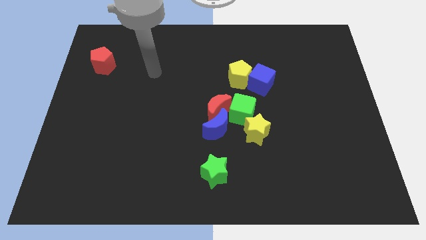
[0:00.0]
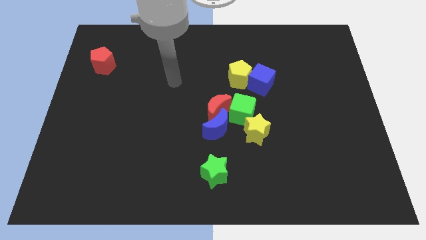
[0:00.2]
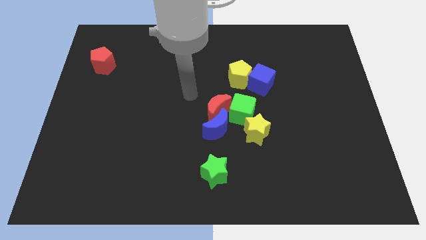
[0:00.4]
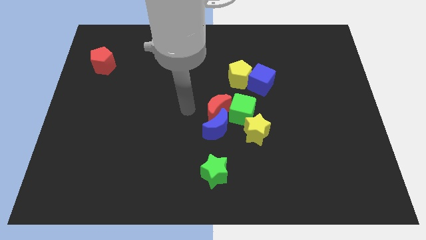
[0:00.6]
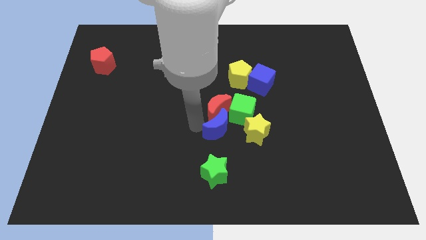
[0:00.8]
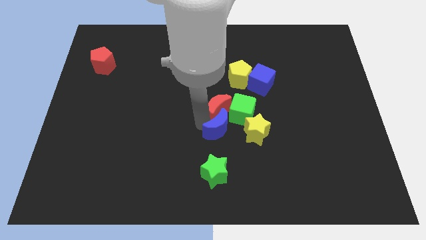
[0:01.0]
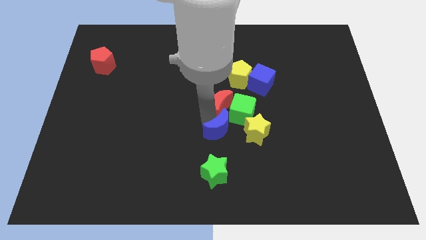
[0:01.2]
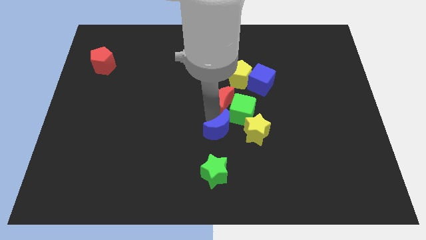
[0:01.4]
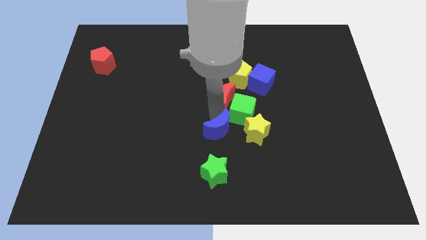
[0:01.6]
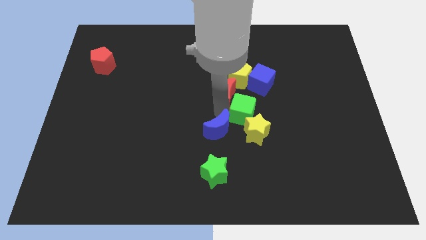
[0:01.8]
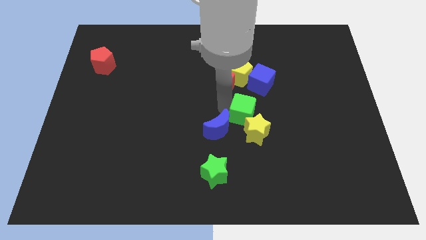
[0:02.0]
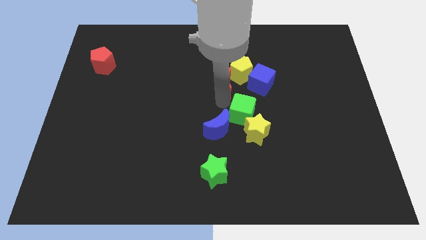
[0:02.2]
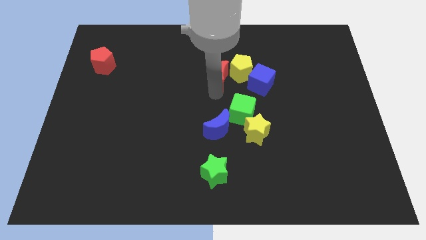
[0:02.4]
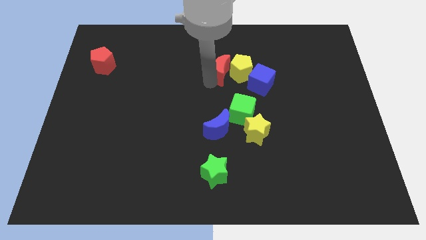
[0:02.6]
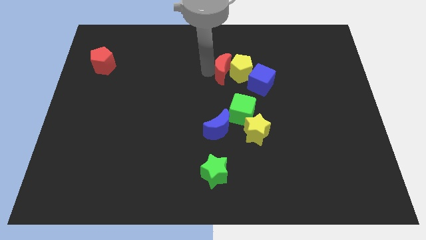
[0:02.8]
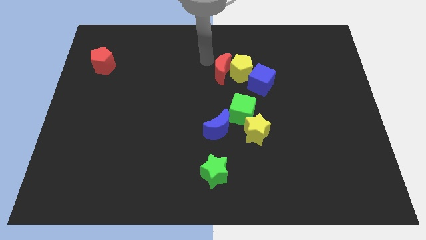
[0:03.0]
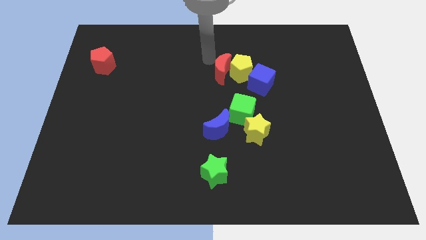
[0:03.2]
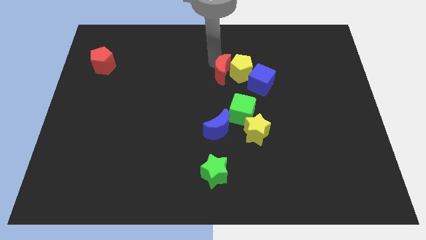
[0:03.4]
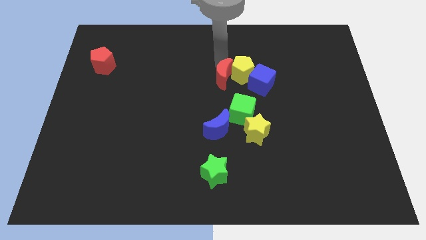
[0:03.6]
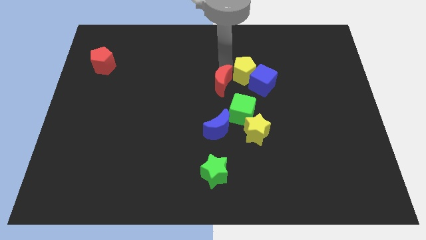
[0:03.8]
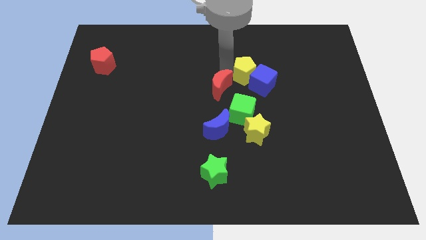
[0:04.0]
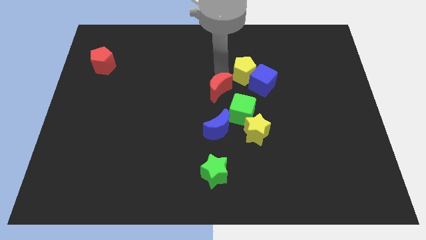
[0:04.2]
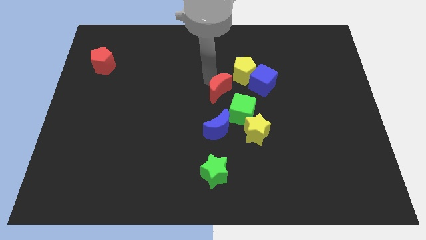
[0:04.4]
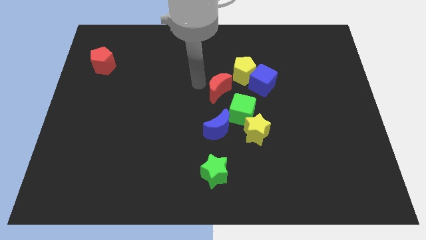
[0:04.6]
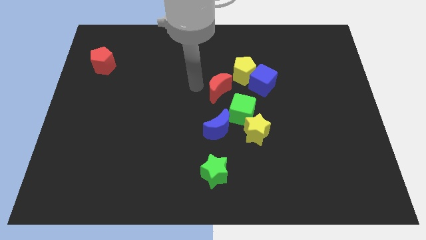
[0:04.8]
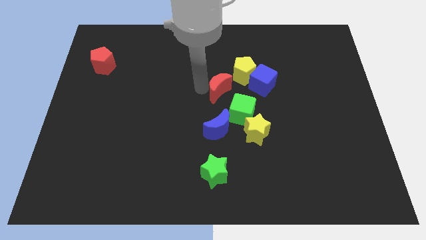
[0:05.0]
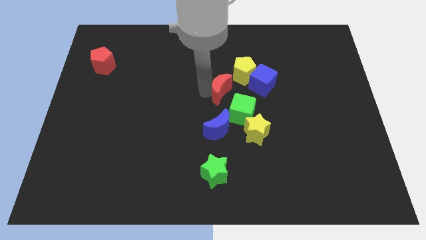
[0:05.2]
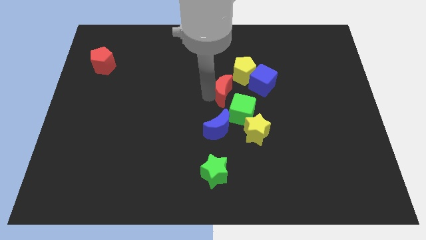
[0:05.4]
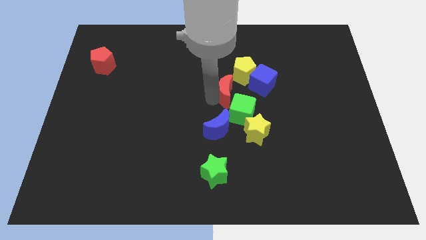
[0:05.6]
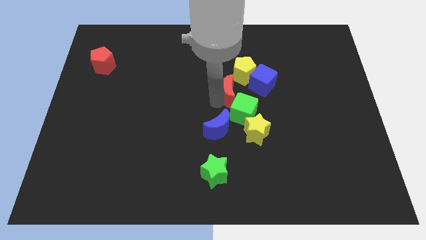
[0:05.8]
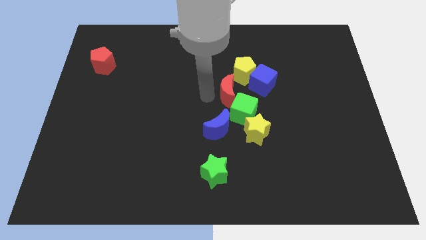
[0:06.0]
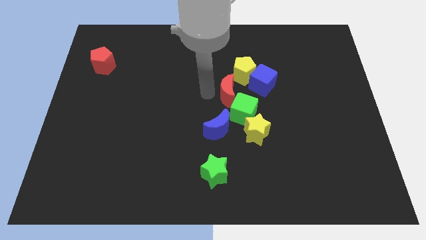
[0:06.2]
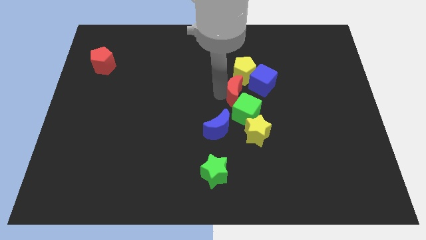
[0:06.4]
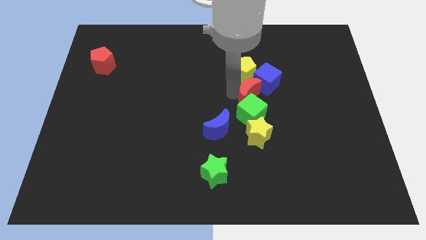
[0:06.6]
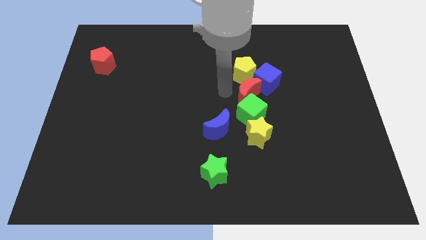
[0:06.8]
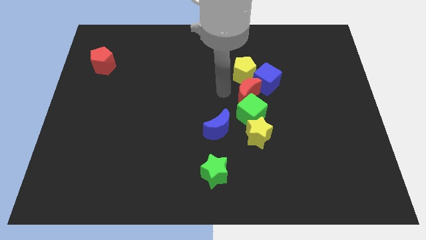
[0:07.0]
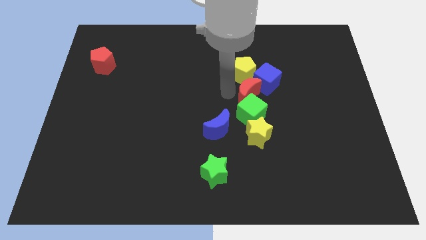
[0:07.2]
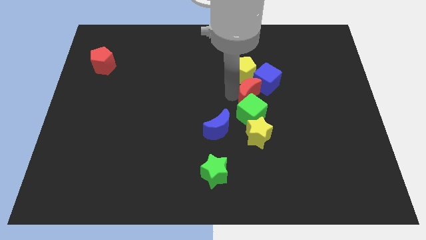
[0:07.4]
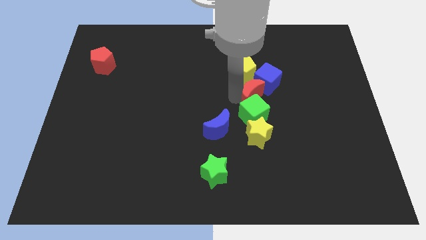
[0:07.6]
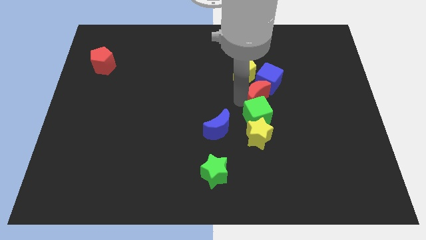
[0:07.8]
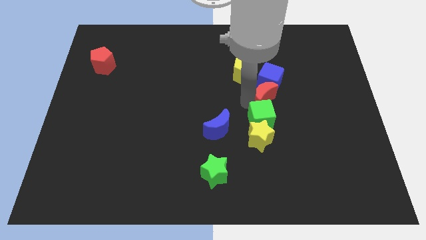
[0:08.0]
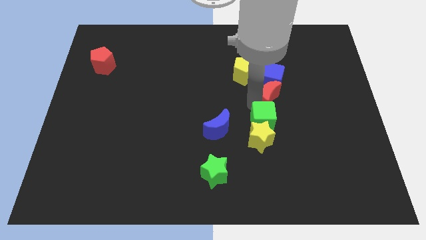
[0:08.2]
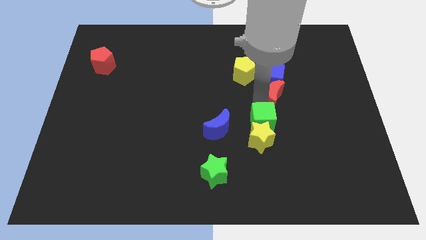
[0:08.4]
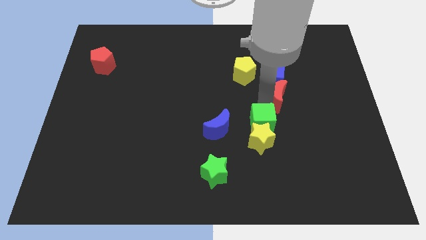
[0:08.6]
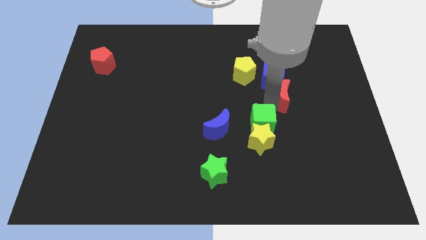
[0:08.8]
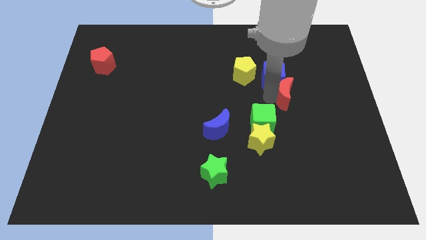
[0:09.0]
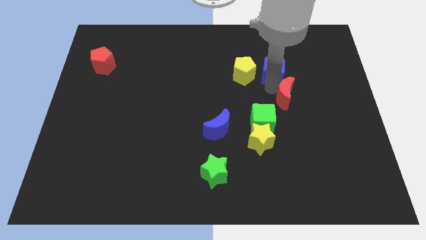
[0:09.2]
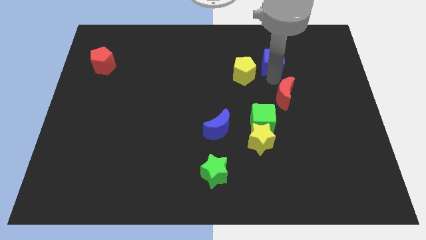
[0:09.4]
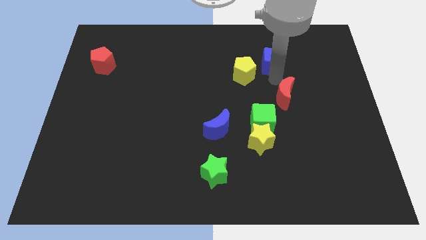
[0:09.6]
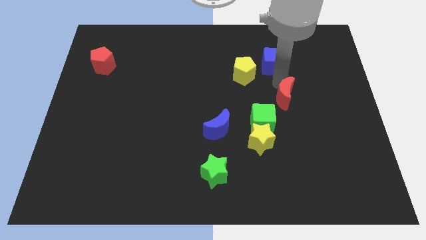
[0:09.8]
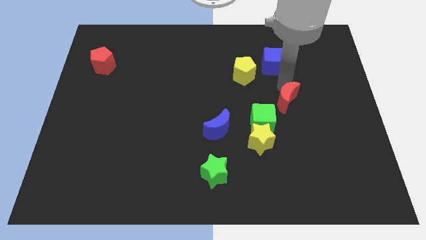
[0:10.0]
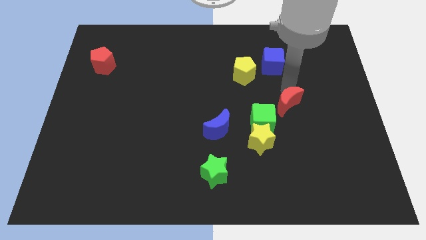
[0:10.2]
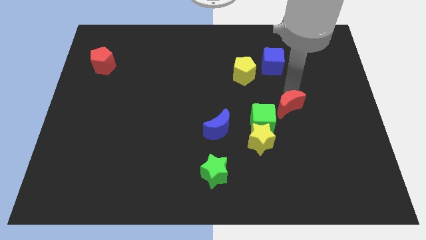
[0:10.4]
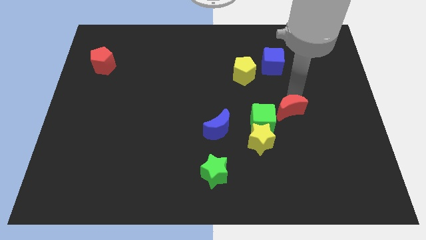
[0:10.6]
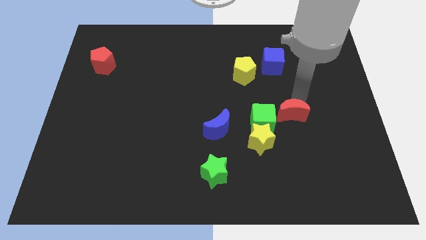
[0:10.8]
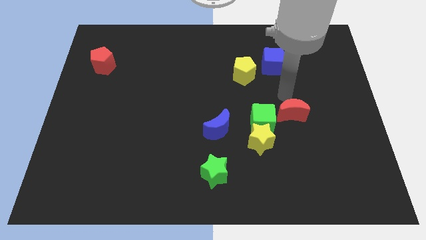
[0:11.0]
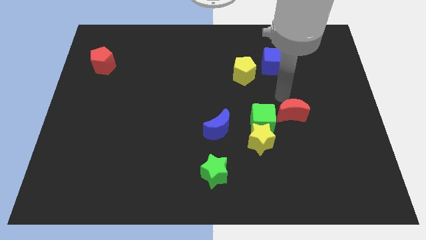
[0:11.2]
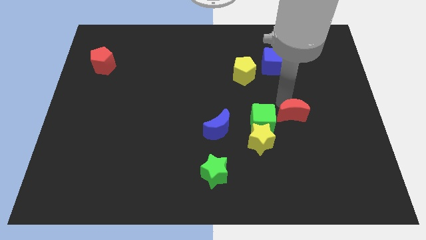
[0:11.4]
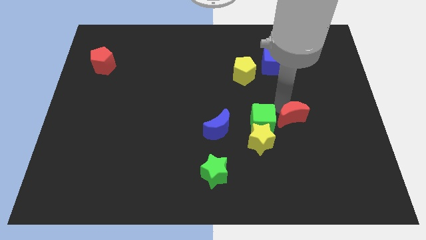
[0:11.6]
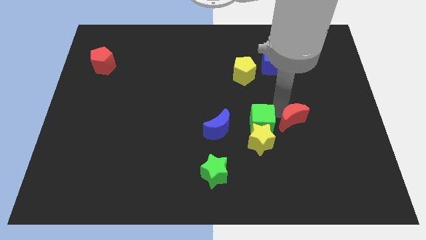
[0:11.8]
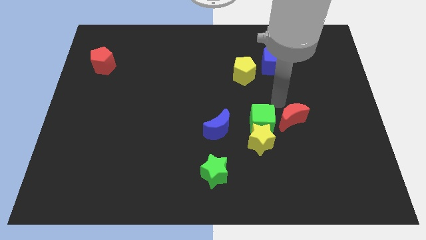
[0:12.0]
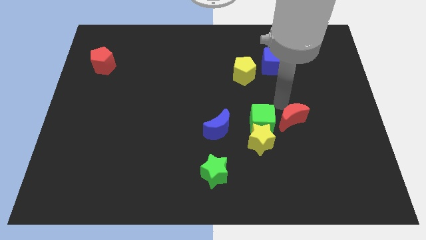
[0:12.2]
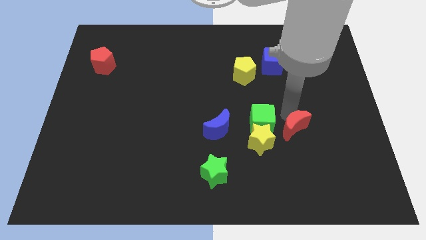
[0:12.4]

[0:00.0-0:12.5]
push the red moon to the right side of the yellow star

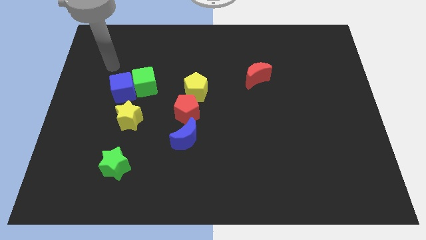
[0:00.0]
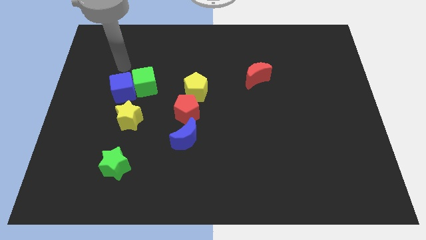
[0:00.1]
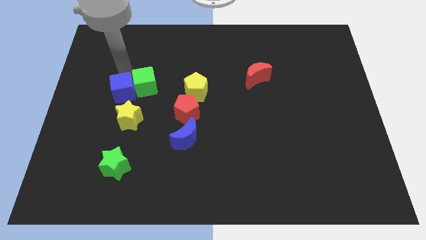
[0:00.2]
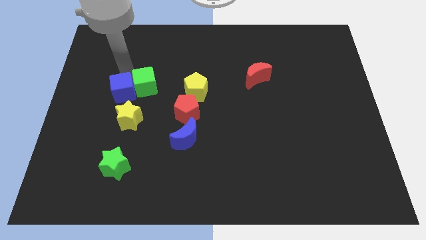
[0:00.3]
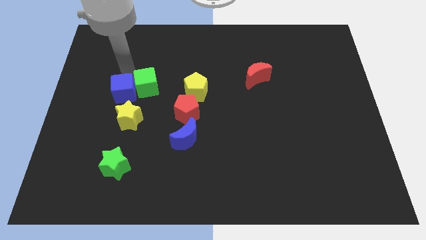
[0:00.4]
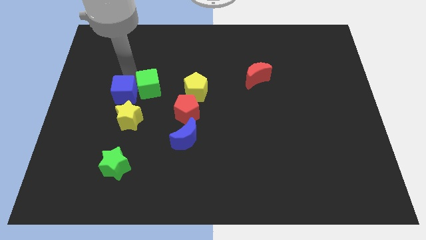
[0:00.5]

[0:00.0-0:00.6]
slide the green cube to the top left side of the red pentagon
